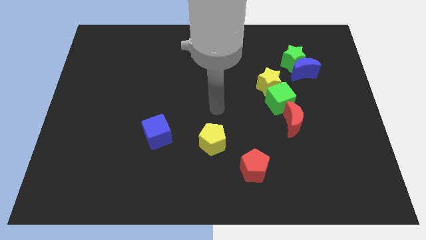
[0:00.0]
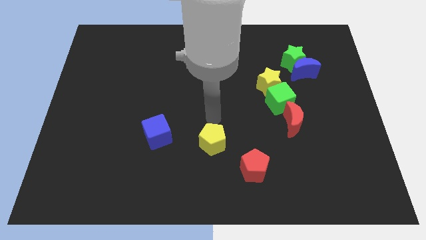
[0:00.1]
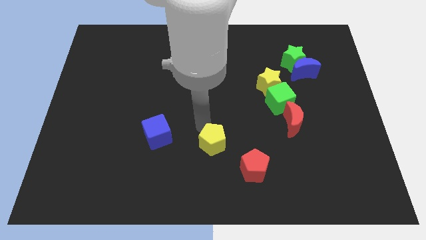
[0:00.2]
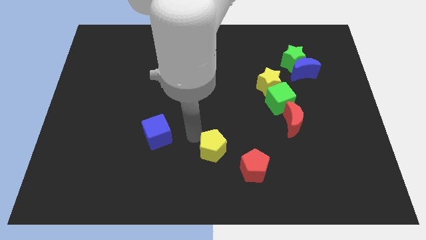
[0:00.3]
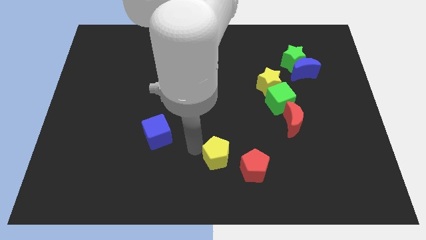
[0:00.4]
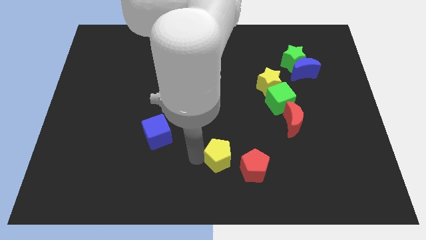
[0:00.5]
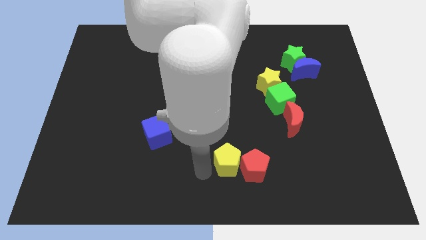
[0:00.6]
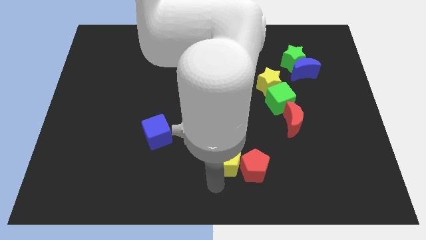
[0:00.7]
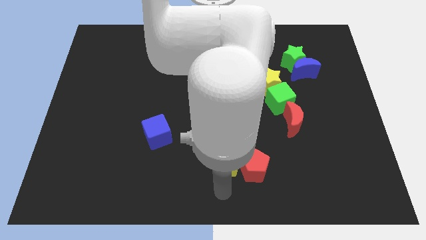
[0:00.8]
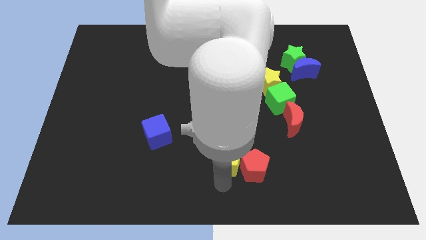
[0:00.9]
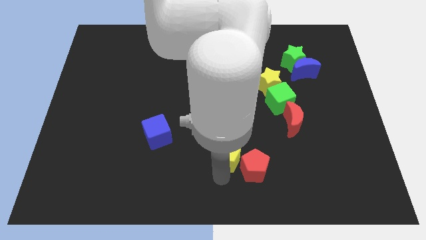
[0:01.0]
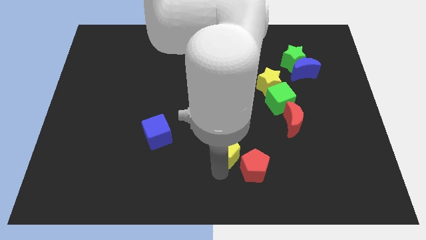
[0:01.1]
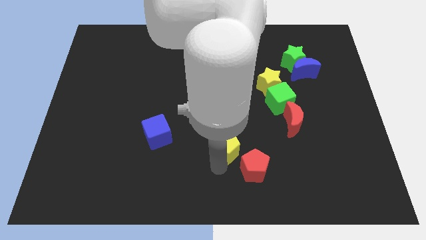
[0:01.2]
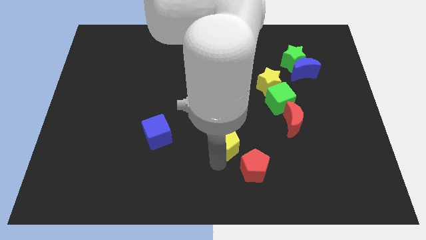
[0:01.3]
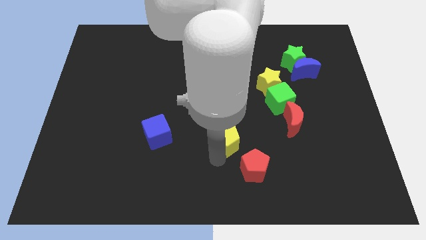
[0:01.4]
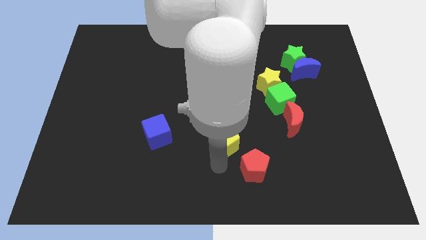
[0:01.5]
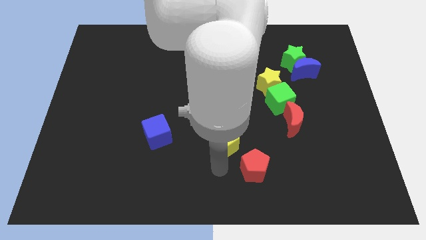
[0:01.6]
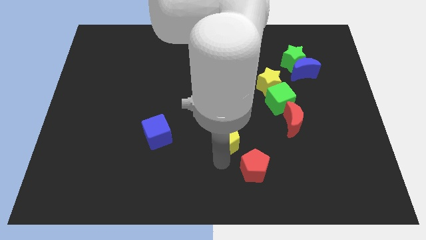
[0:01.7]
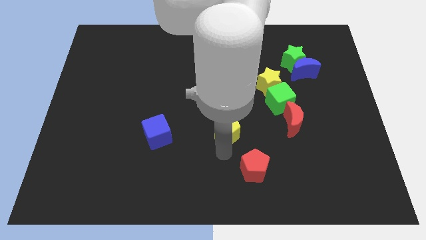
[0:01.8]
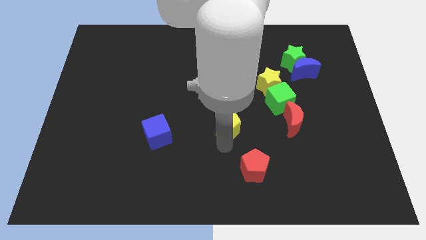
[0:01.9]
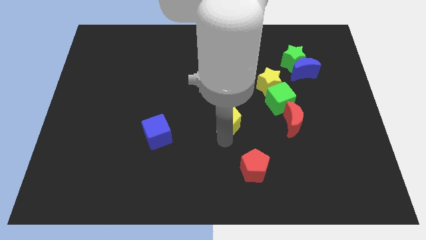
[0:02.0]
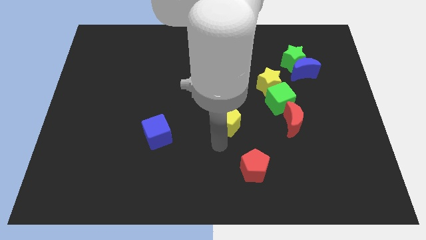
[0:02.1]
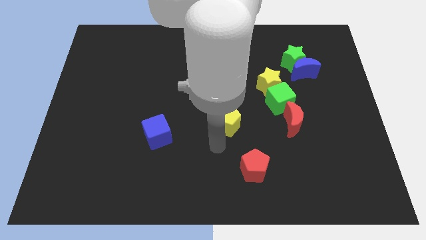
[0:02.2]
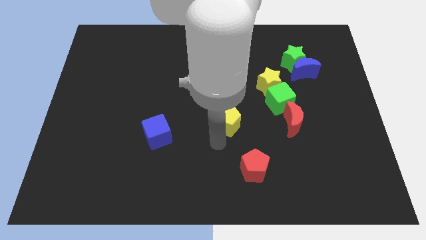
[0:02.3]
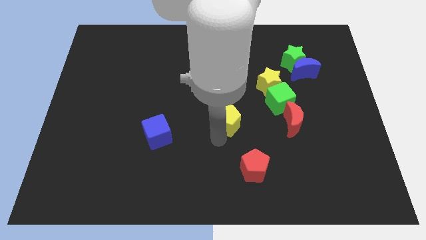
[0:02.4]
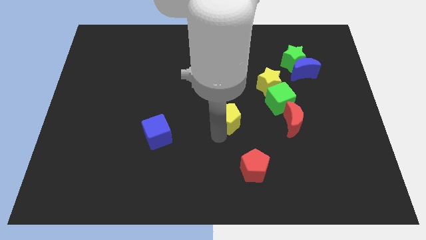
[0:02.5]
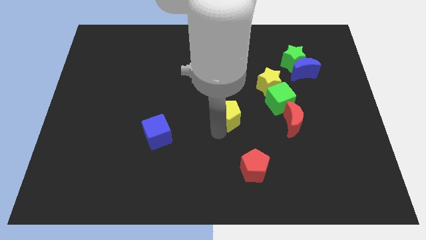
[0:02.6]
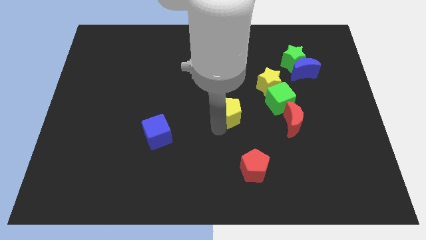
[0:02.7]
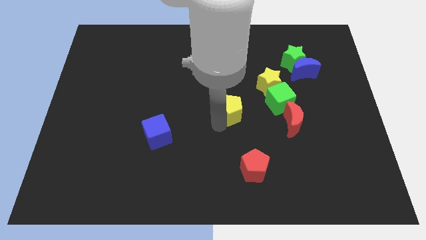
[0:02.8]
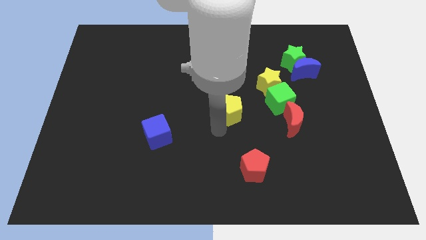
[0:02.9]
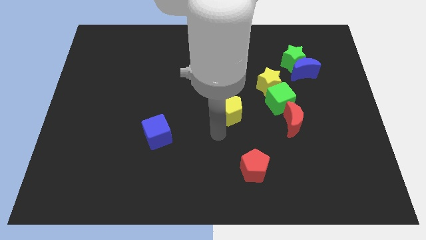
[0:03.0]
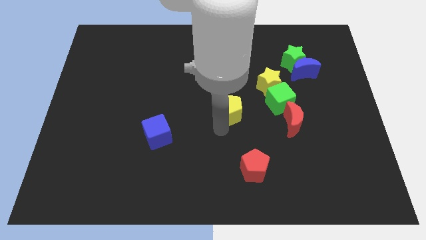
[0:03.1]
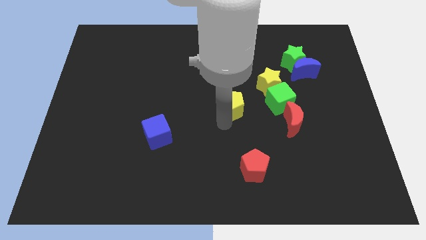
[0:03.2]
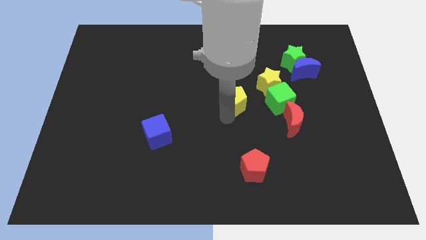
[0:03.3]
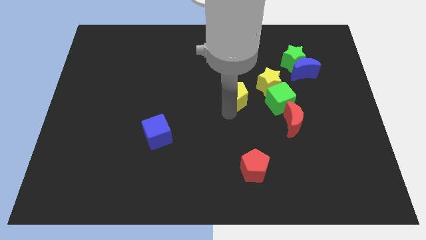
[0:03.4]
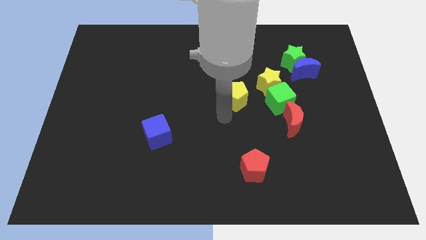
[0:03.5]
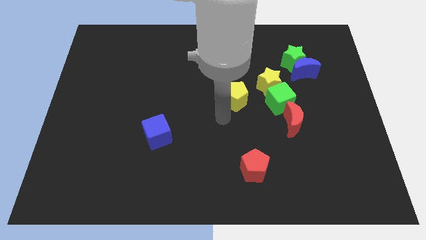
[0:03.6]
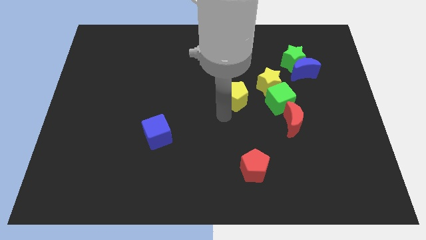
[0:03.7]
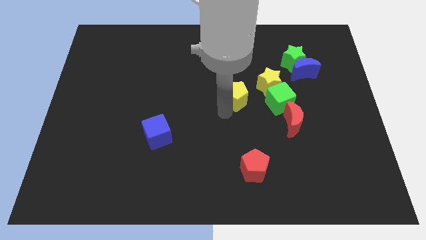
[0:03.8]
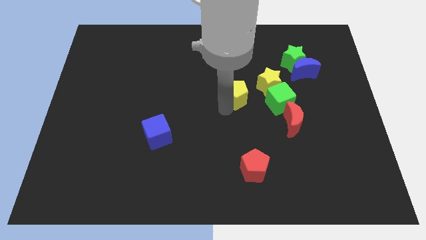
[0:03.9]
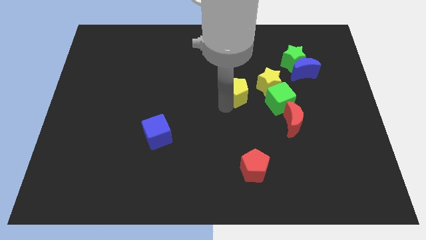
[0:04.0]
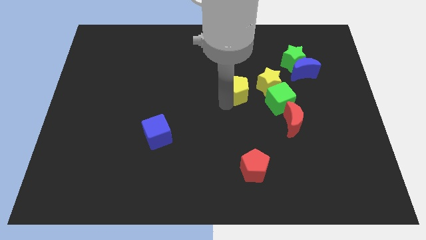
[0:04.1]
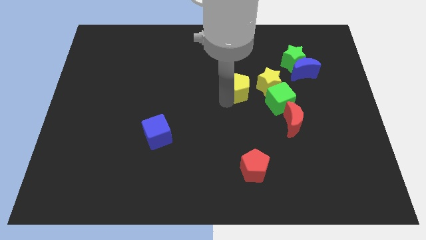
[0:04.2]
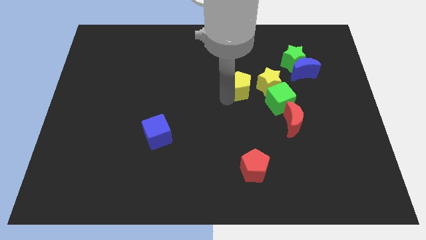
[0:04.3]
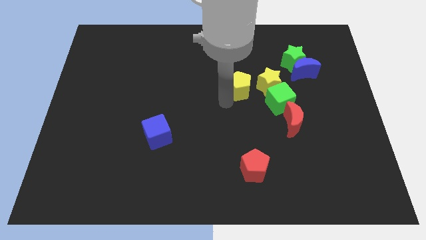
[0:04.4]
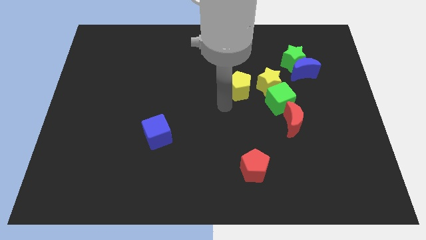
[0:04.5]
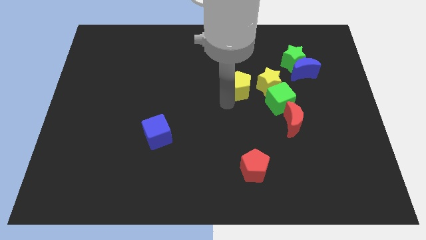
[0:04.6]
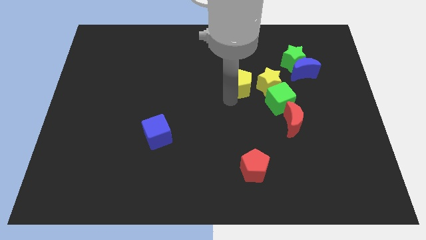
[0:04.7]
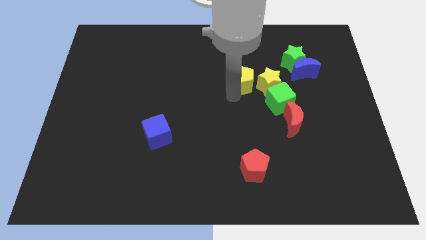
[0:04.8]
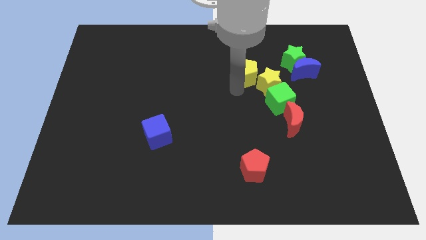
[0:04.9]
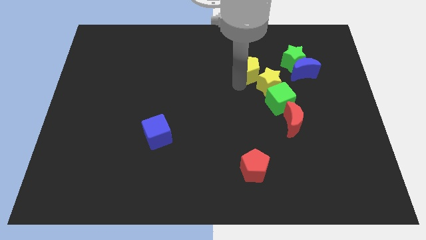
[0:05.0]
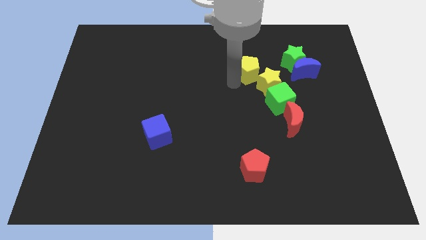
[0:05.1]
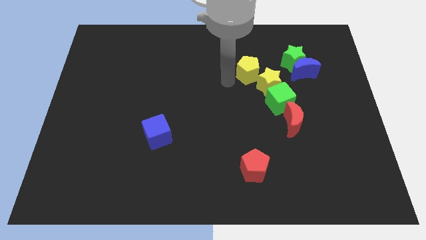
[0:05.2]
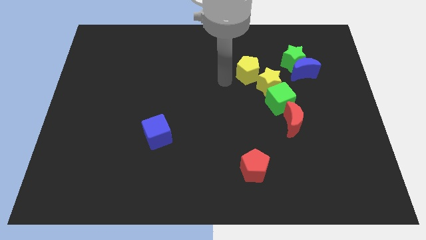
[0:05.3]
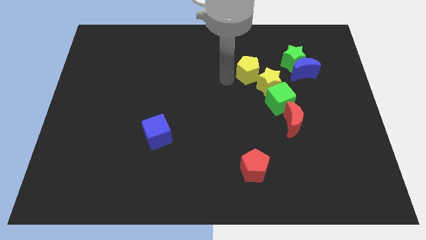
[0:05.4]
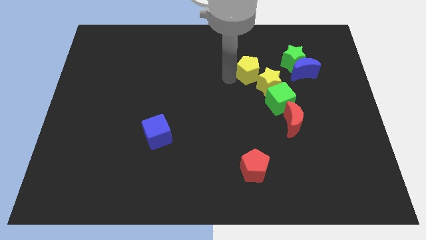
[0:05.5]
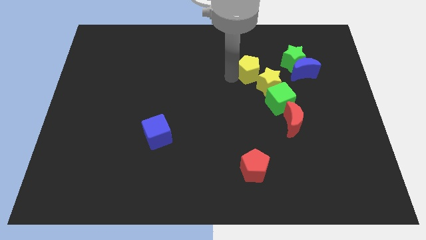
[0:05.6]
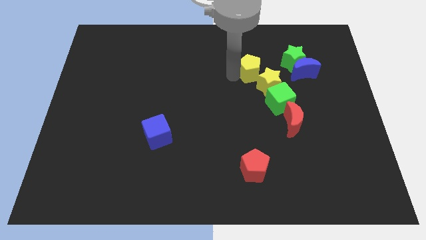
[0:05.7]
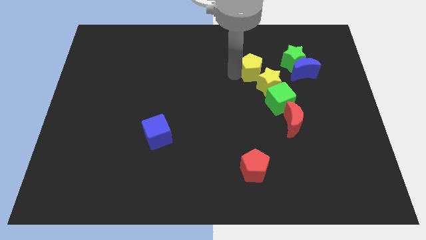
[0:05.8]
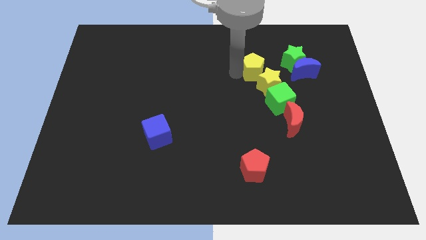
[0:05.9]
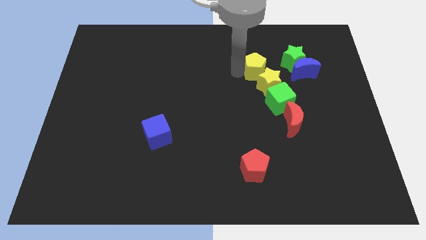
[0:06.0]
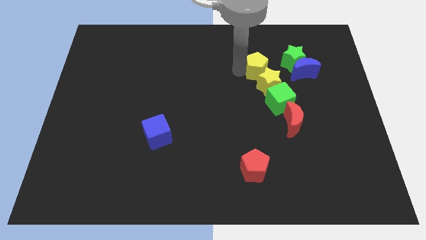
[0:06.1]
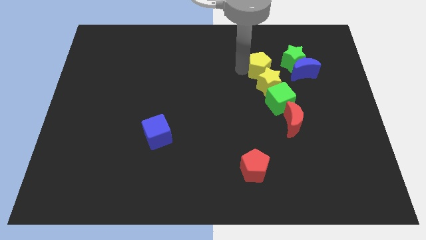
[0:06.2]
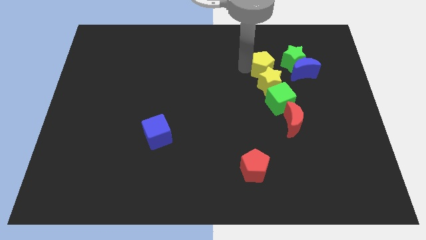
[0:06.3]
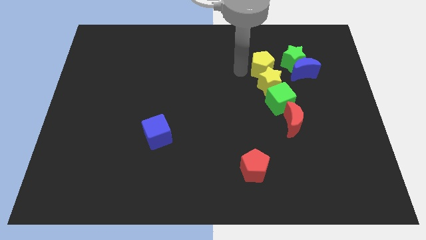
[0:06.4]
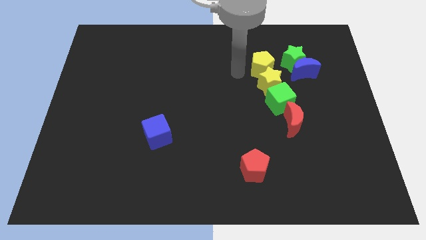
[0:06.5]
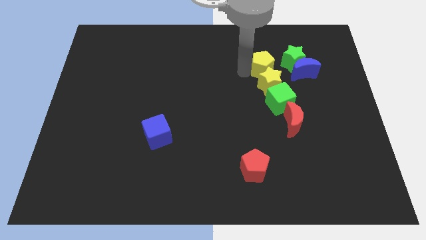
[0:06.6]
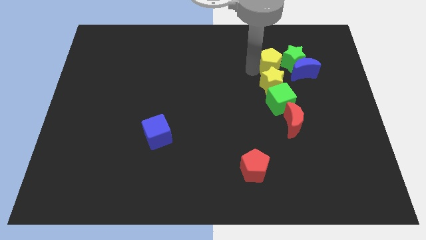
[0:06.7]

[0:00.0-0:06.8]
move the yellow pentagon close to the green star
